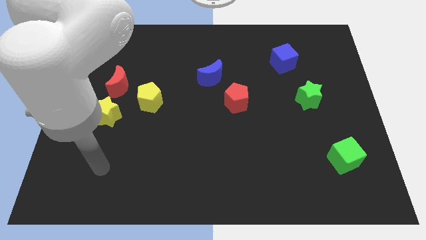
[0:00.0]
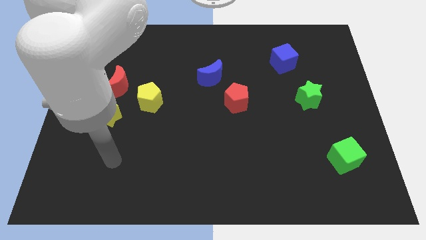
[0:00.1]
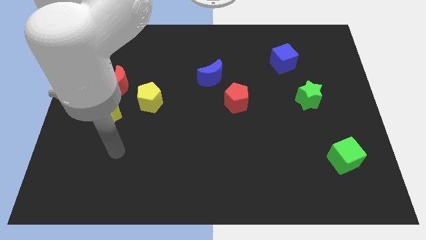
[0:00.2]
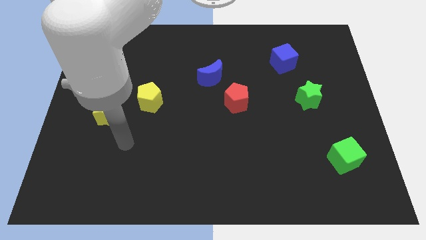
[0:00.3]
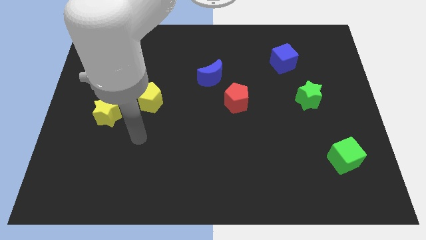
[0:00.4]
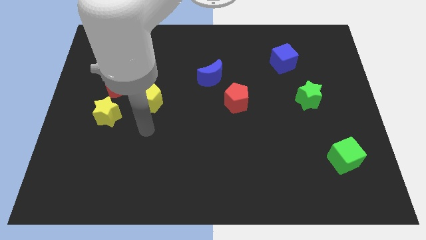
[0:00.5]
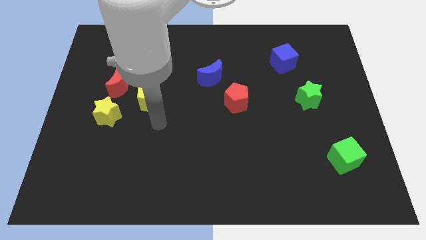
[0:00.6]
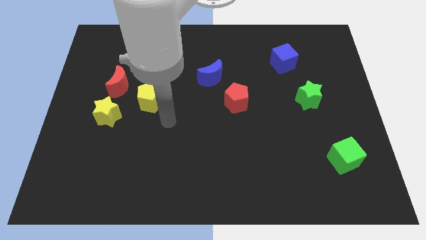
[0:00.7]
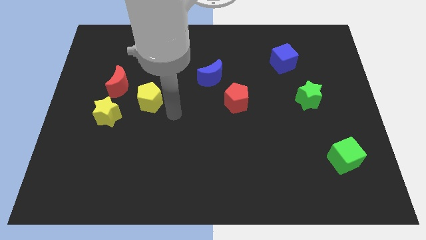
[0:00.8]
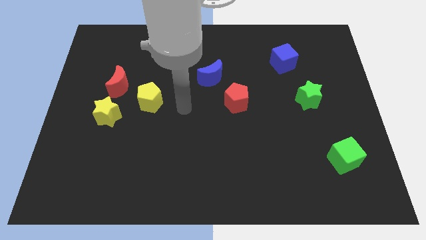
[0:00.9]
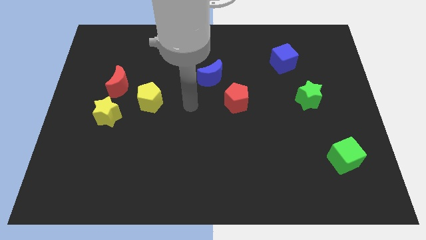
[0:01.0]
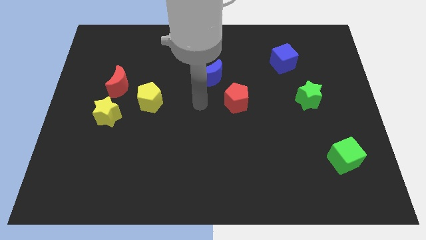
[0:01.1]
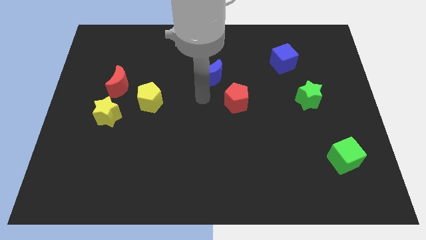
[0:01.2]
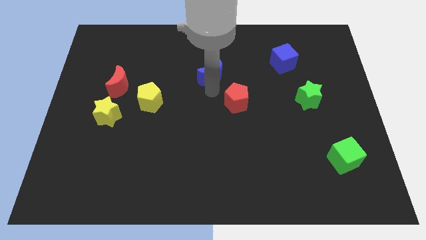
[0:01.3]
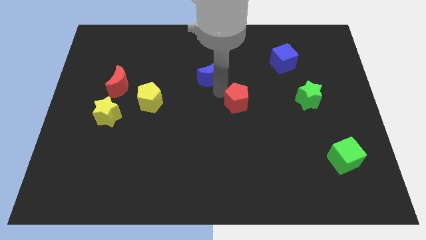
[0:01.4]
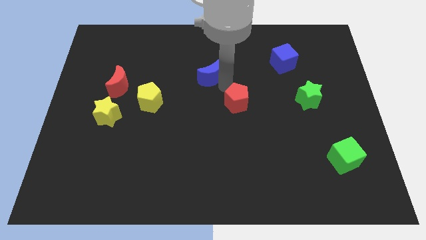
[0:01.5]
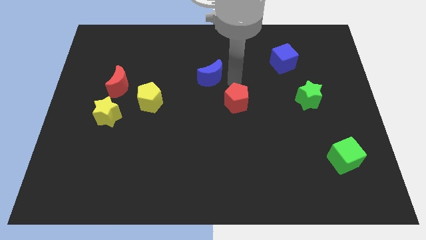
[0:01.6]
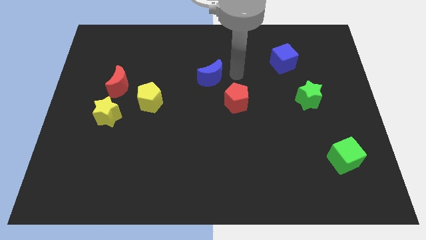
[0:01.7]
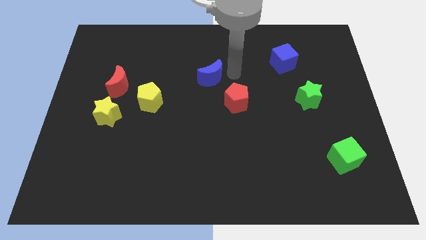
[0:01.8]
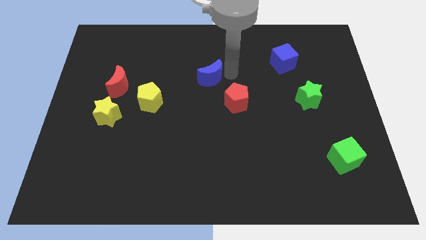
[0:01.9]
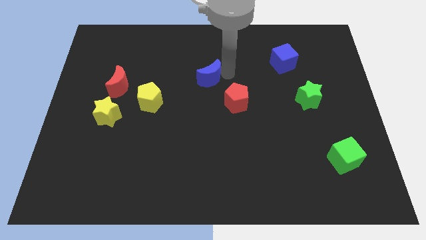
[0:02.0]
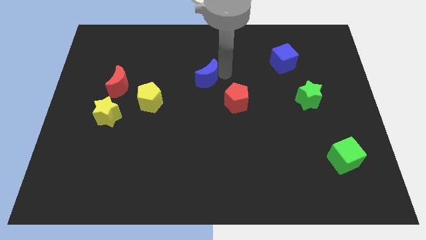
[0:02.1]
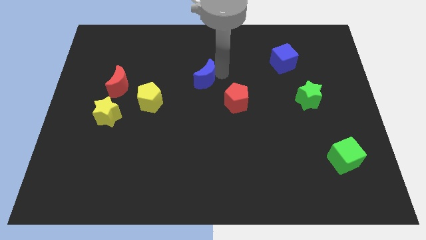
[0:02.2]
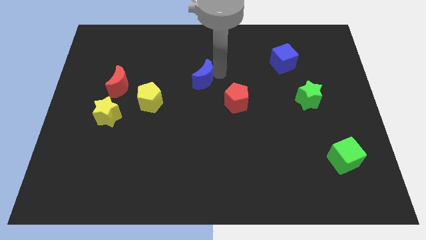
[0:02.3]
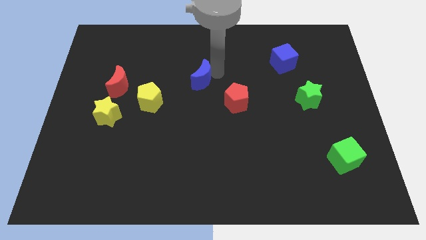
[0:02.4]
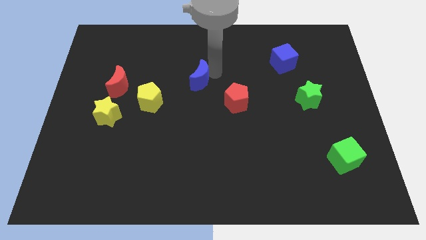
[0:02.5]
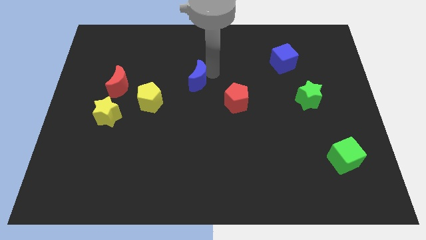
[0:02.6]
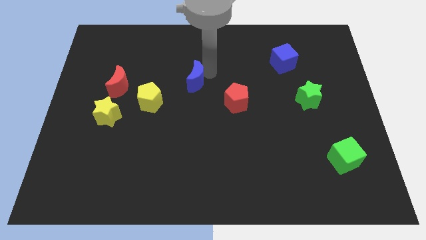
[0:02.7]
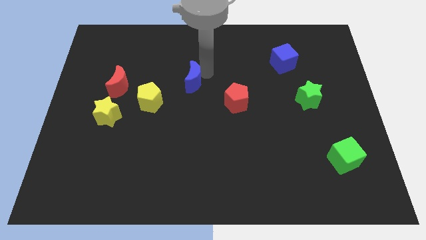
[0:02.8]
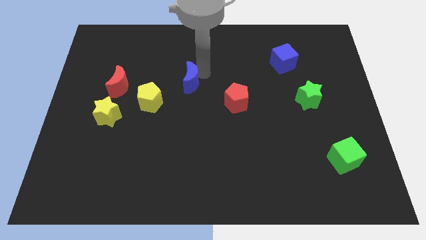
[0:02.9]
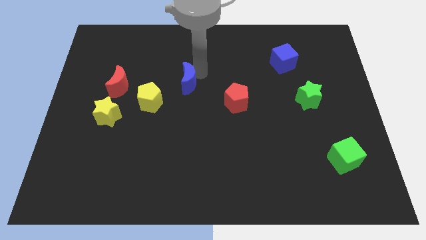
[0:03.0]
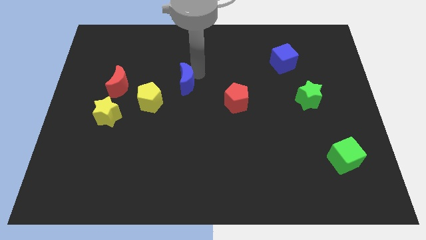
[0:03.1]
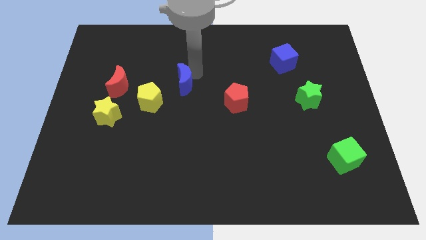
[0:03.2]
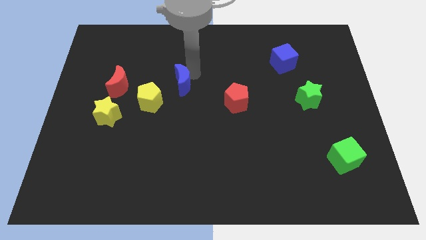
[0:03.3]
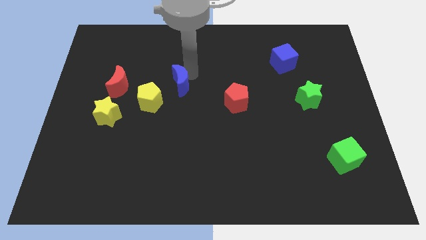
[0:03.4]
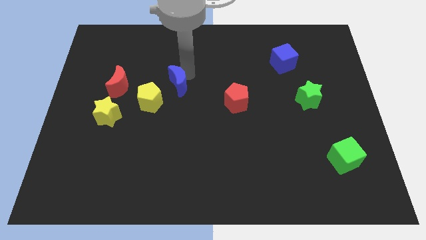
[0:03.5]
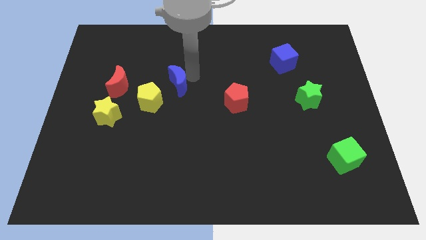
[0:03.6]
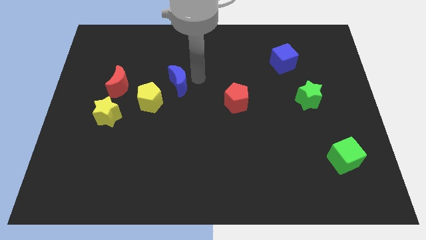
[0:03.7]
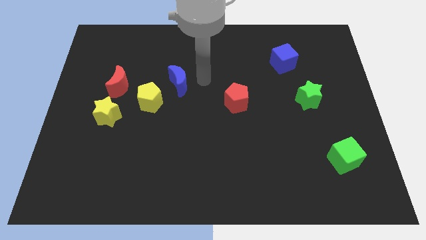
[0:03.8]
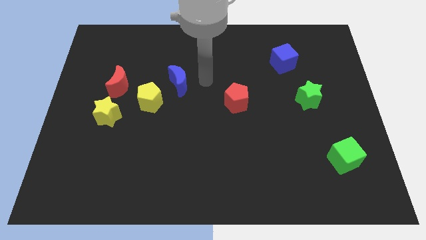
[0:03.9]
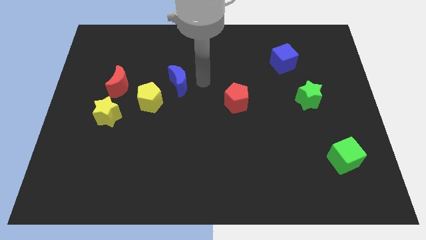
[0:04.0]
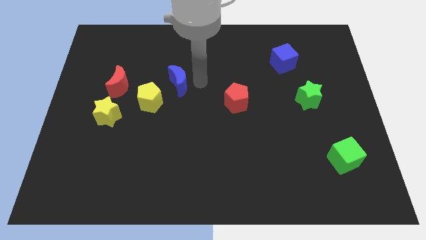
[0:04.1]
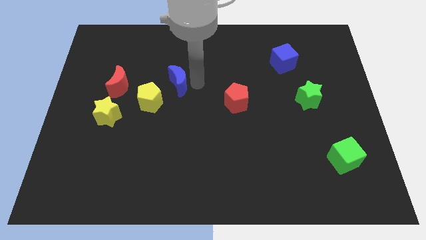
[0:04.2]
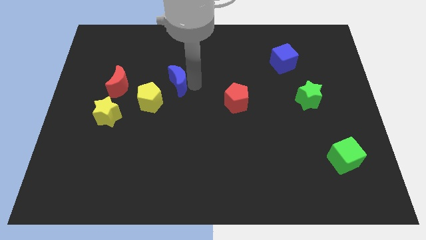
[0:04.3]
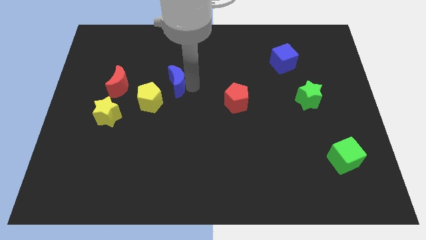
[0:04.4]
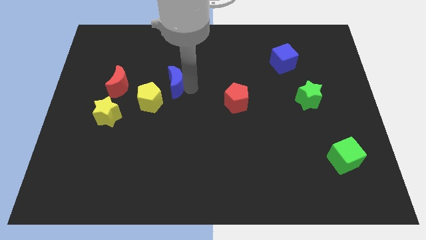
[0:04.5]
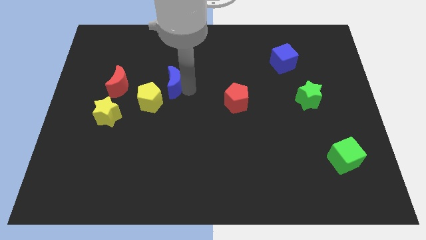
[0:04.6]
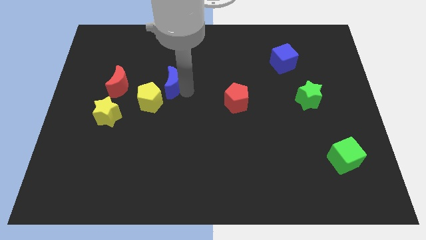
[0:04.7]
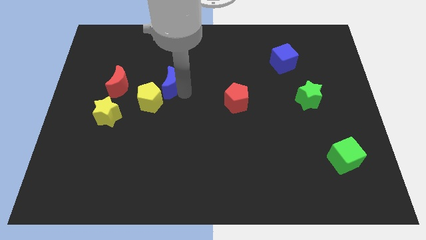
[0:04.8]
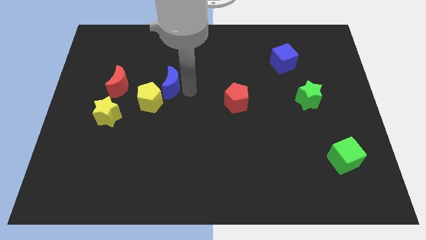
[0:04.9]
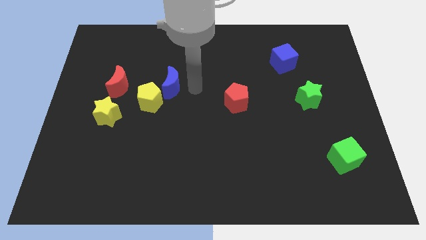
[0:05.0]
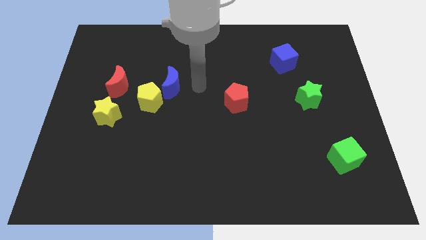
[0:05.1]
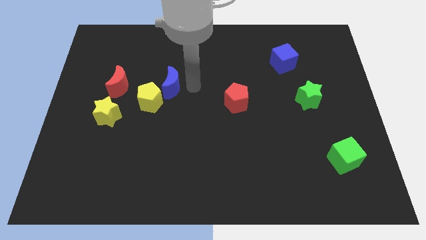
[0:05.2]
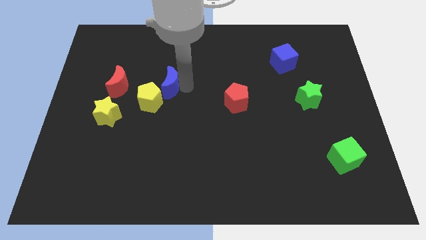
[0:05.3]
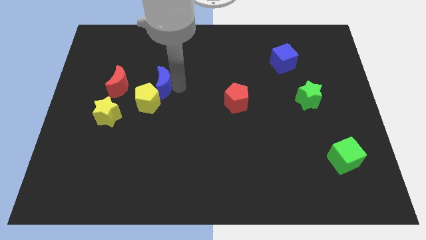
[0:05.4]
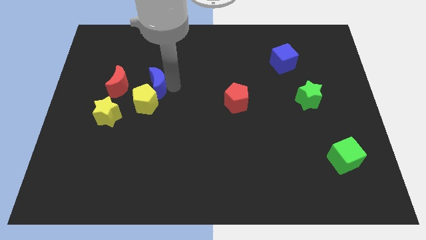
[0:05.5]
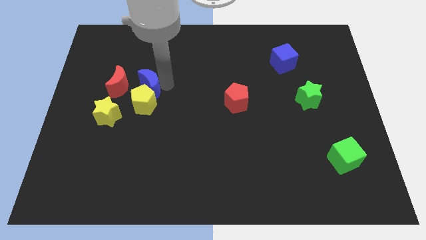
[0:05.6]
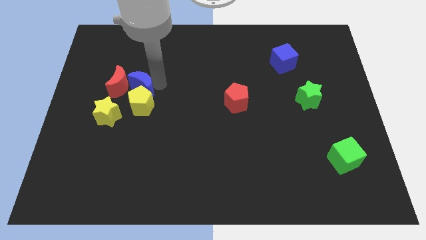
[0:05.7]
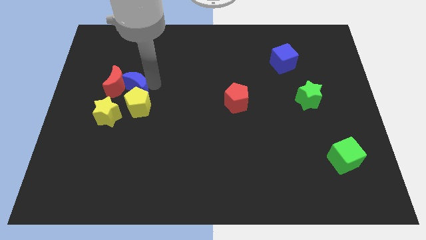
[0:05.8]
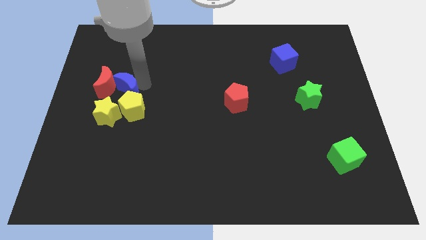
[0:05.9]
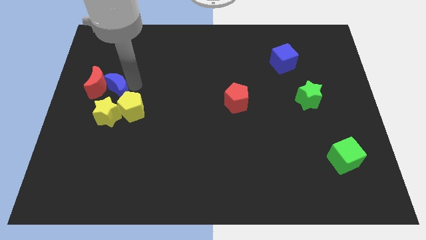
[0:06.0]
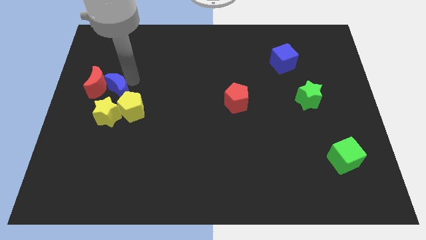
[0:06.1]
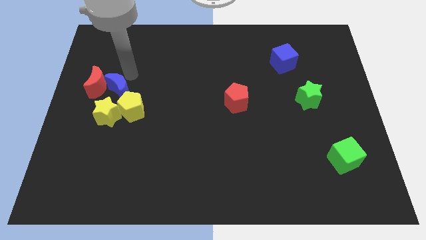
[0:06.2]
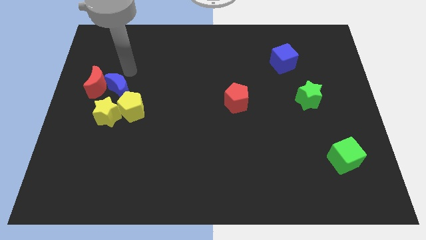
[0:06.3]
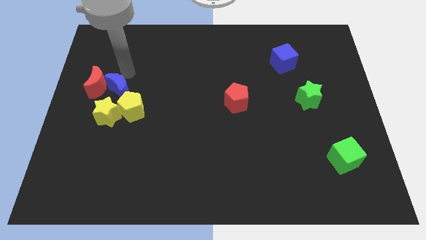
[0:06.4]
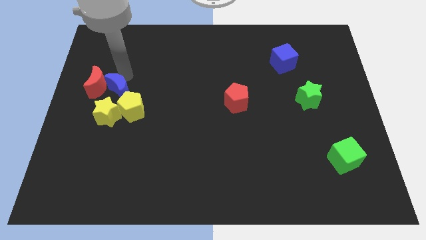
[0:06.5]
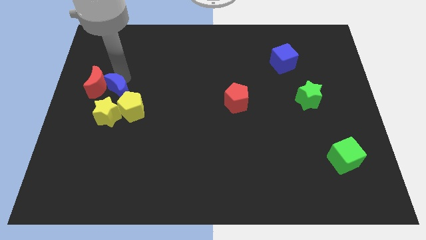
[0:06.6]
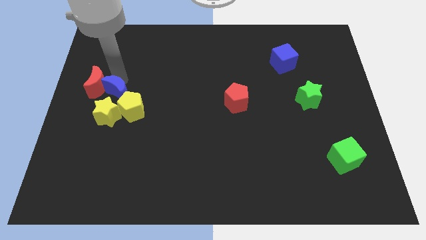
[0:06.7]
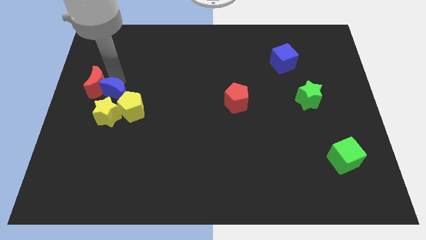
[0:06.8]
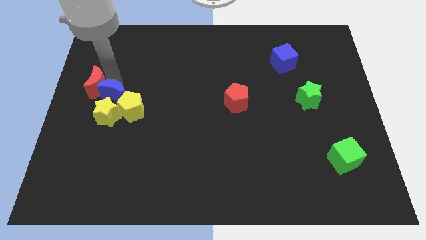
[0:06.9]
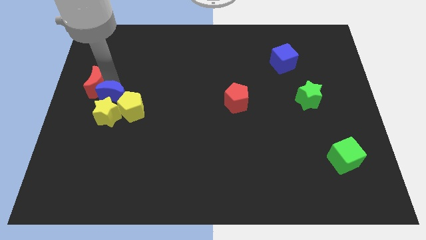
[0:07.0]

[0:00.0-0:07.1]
slide the blue moon next to the yellow star
